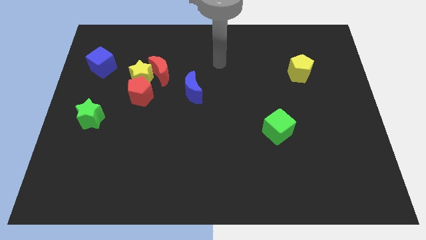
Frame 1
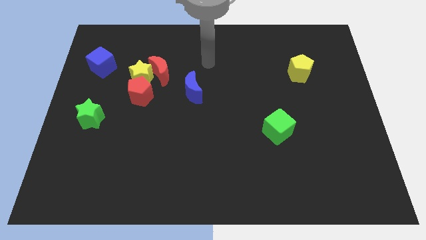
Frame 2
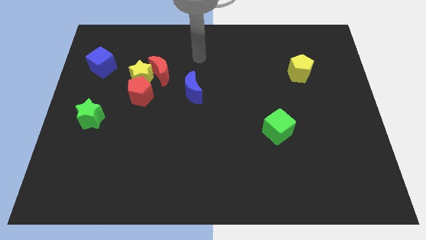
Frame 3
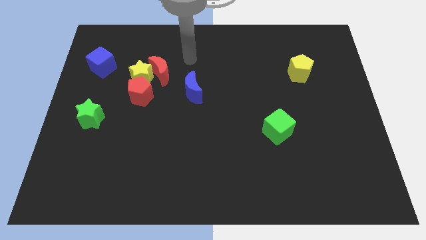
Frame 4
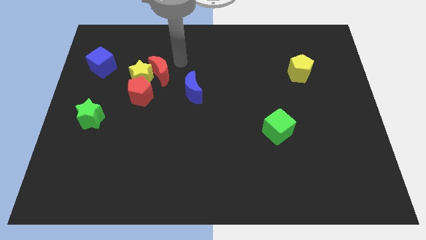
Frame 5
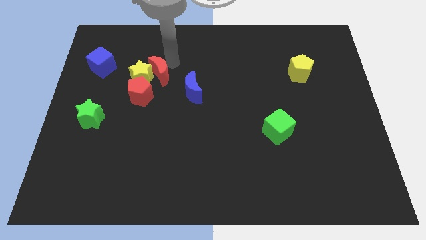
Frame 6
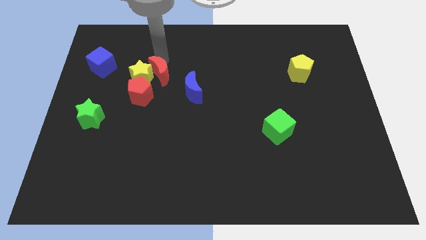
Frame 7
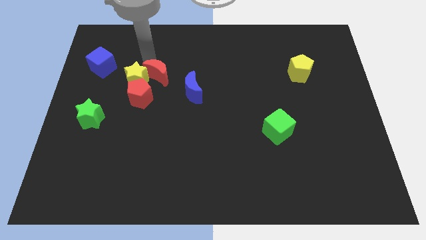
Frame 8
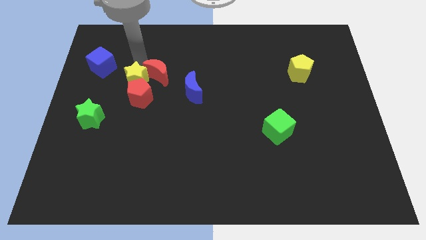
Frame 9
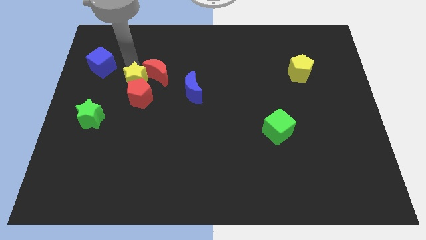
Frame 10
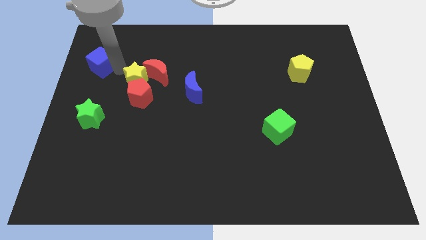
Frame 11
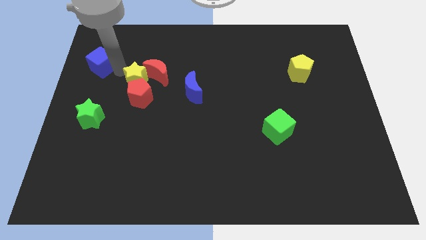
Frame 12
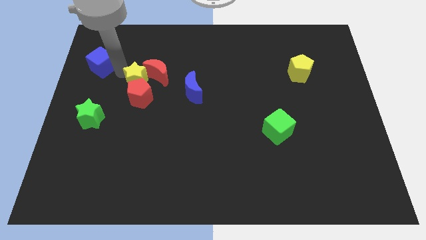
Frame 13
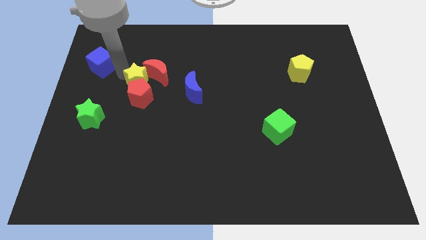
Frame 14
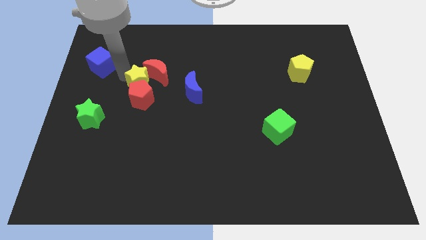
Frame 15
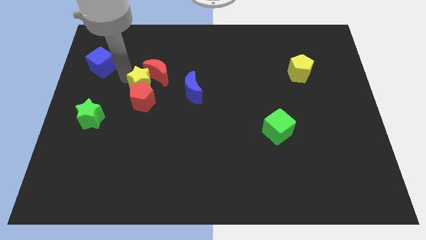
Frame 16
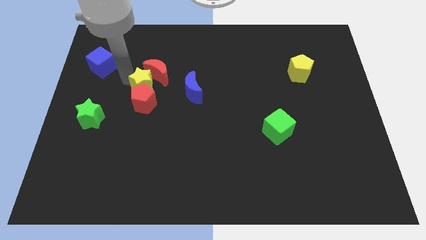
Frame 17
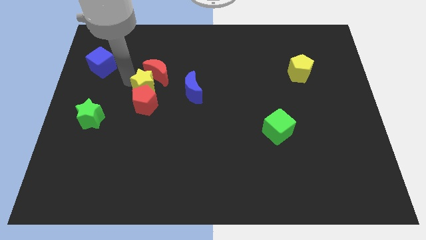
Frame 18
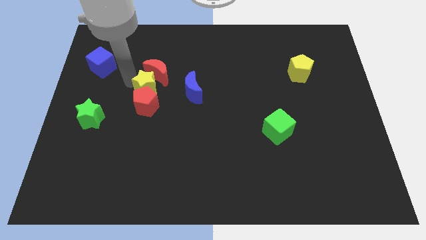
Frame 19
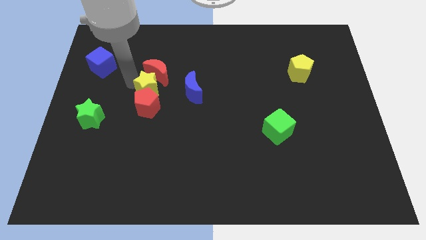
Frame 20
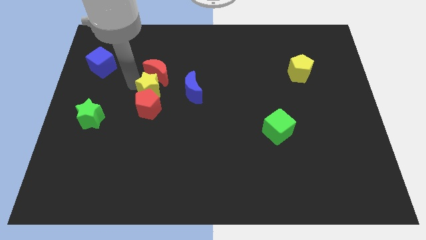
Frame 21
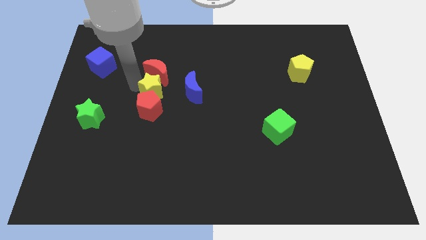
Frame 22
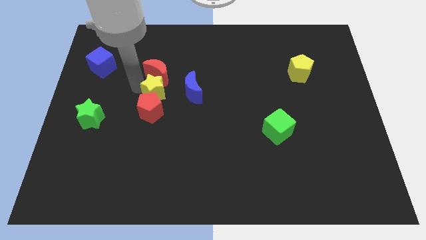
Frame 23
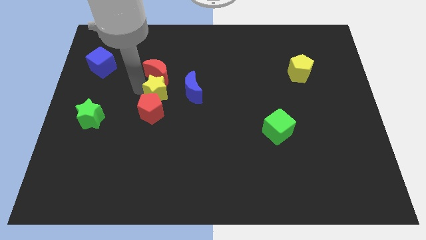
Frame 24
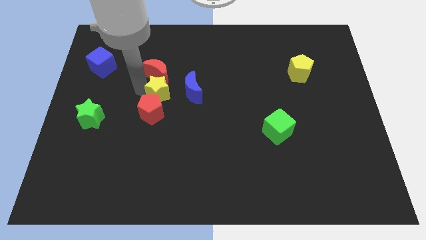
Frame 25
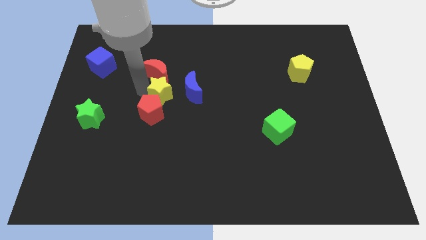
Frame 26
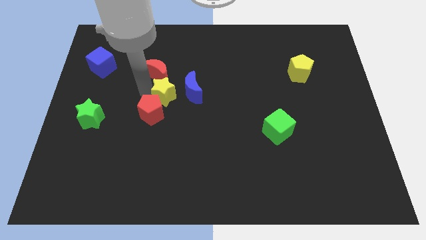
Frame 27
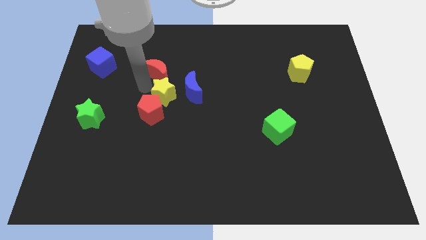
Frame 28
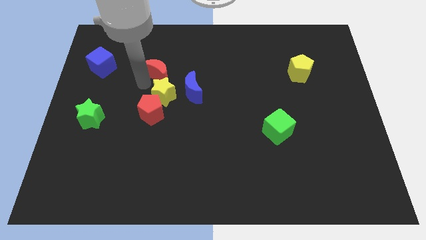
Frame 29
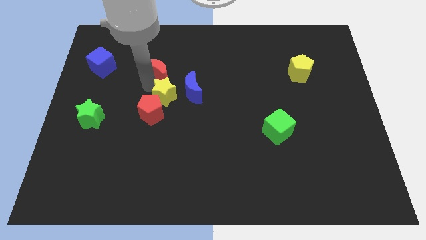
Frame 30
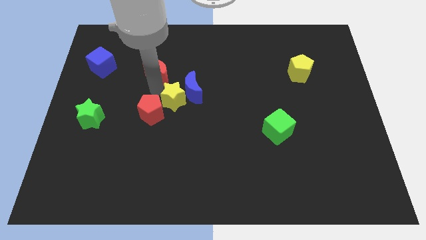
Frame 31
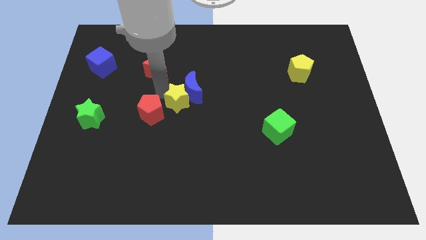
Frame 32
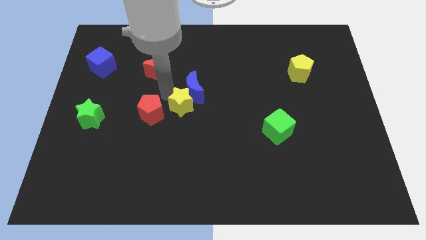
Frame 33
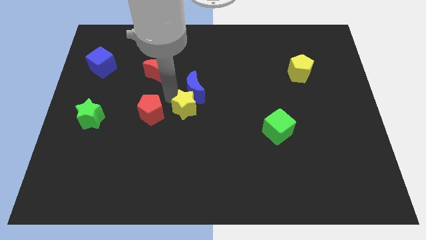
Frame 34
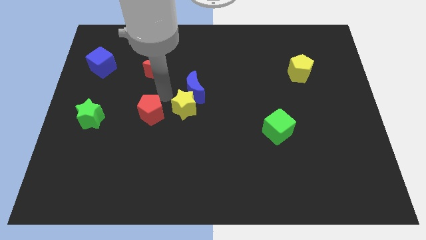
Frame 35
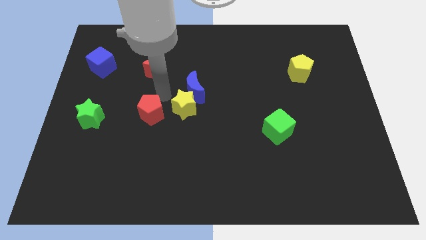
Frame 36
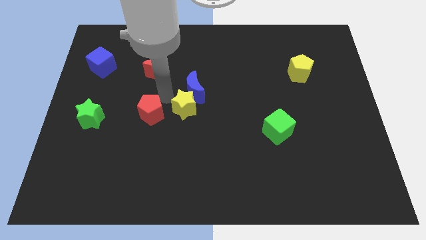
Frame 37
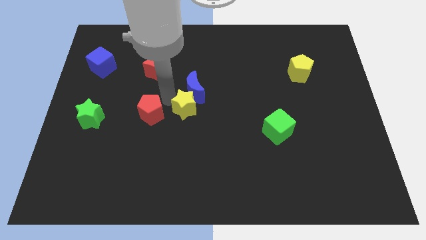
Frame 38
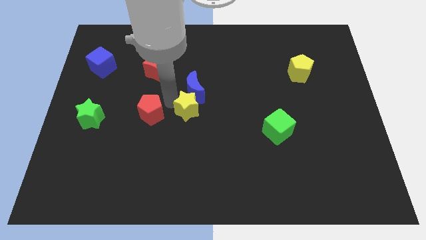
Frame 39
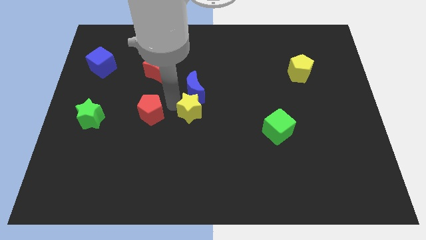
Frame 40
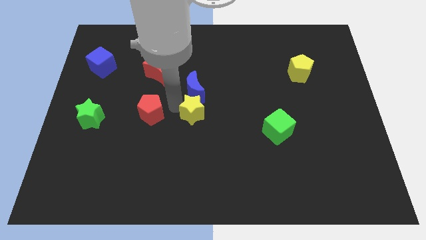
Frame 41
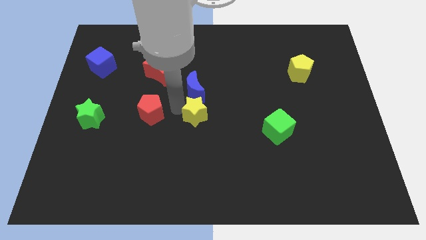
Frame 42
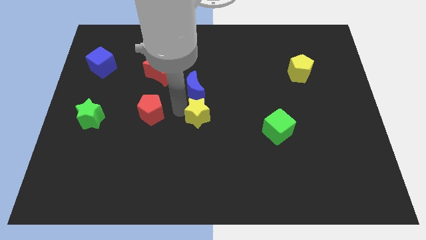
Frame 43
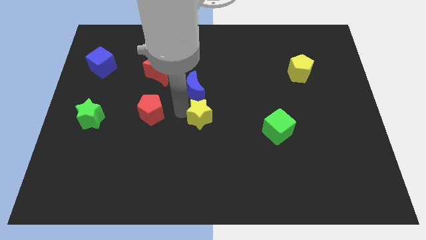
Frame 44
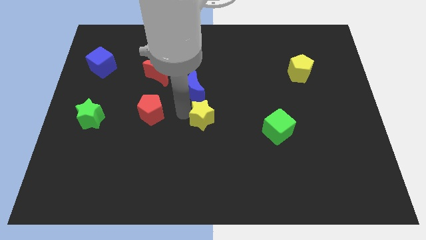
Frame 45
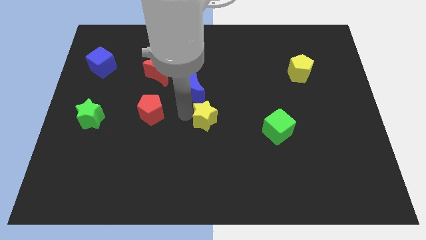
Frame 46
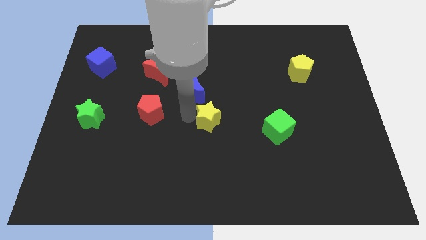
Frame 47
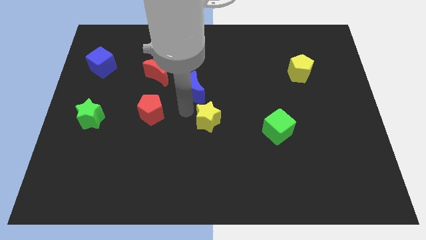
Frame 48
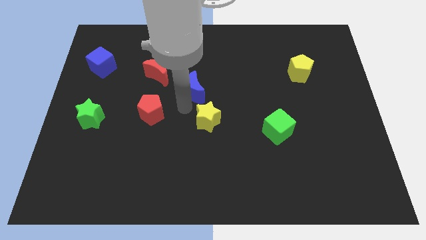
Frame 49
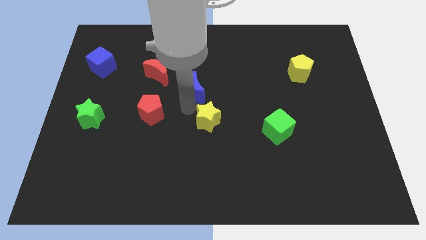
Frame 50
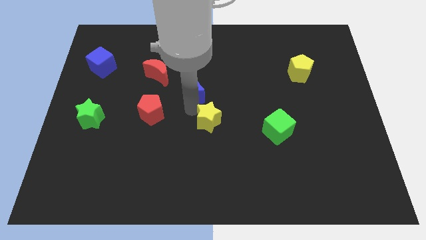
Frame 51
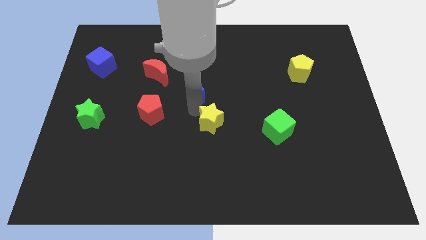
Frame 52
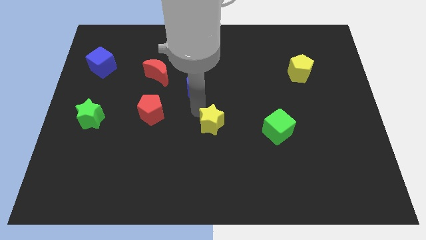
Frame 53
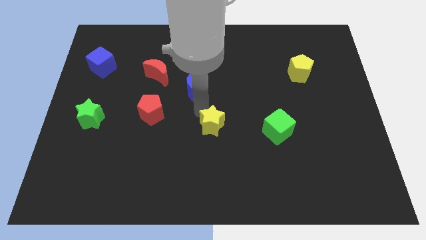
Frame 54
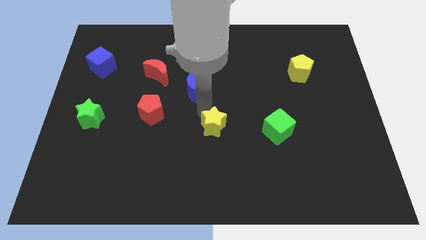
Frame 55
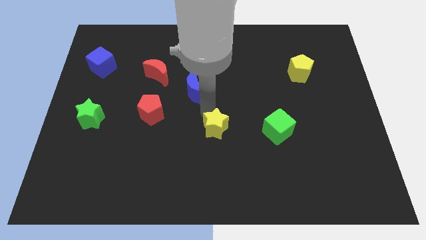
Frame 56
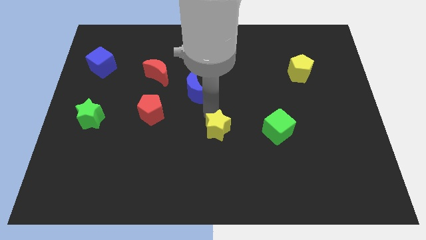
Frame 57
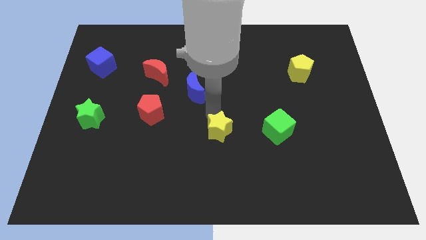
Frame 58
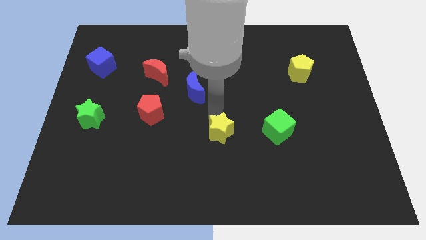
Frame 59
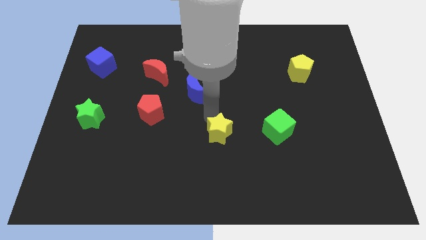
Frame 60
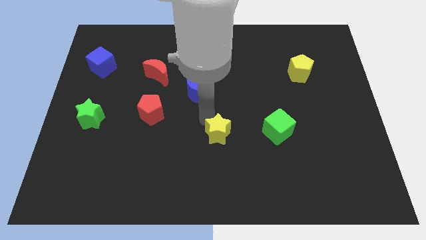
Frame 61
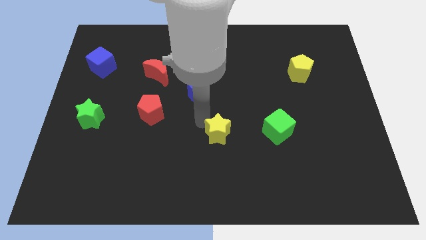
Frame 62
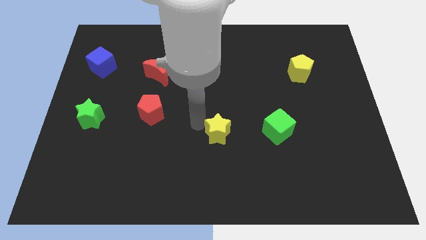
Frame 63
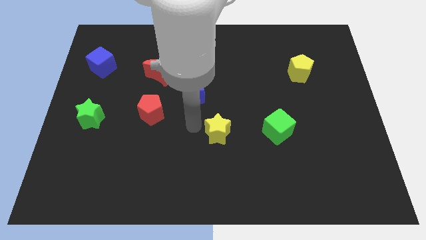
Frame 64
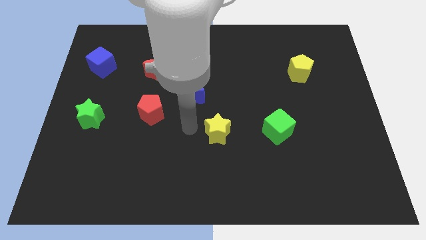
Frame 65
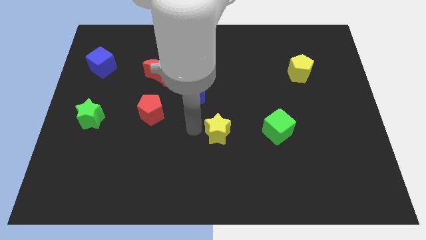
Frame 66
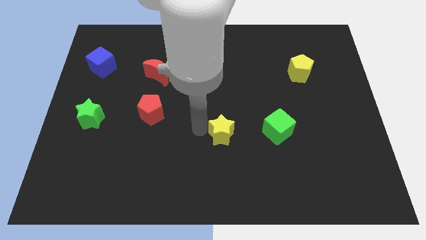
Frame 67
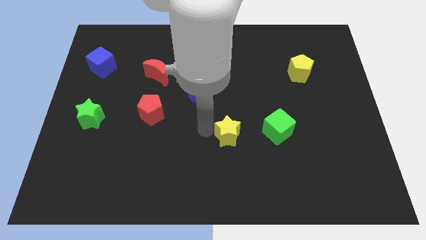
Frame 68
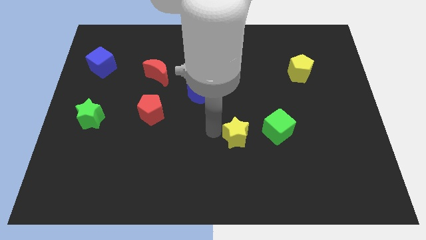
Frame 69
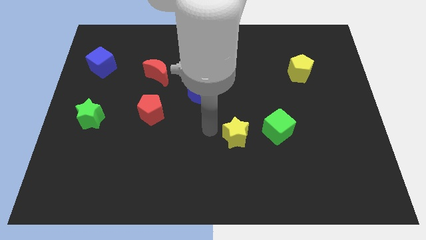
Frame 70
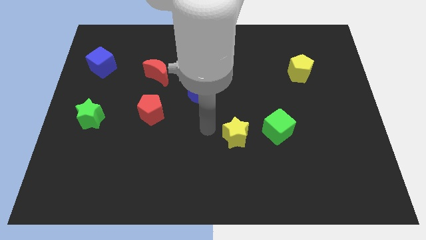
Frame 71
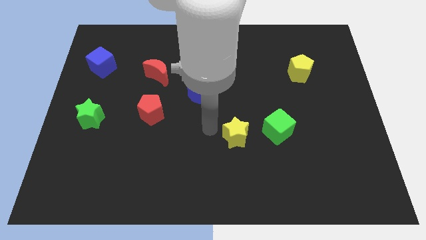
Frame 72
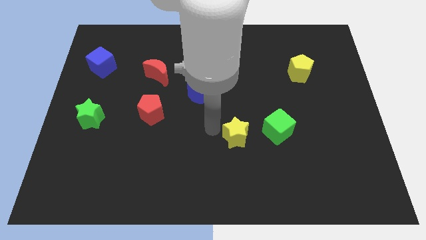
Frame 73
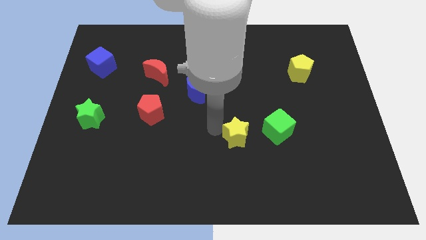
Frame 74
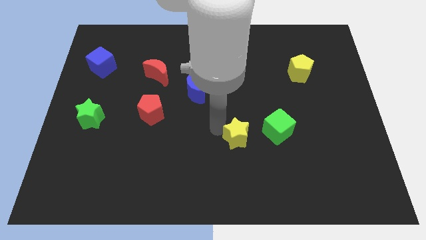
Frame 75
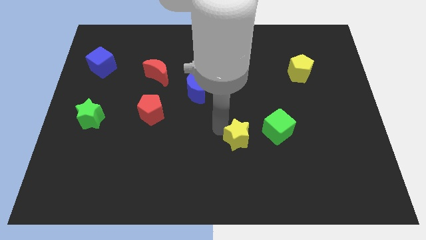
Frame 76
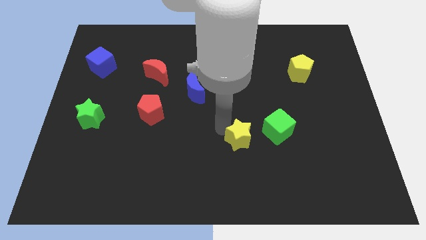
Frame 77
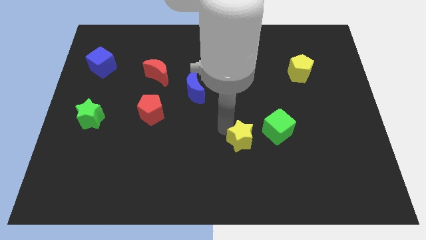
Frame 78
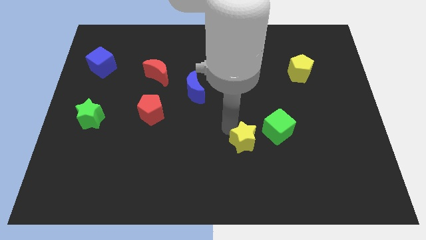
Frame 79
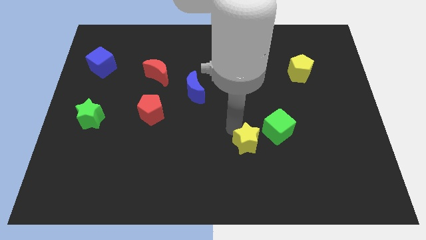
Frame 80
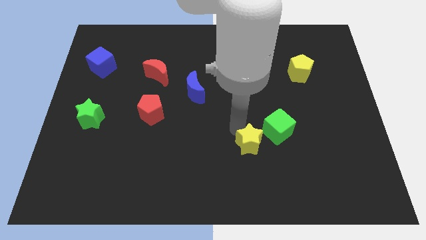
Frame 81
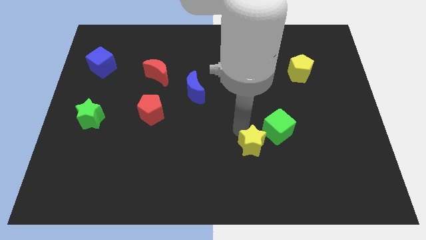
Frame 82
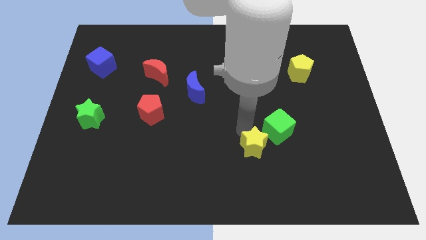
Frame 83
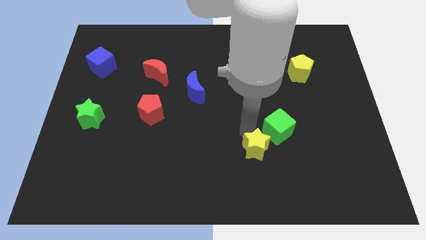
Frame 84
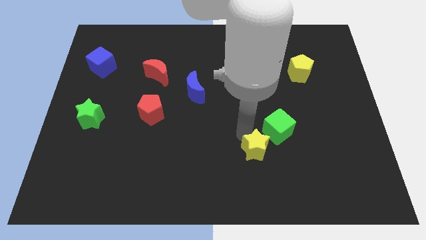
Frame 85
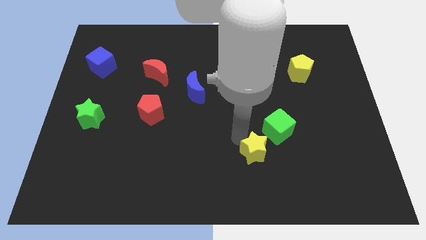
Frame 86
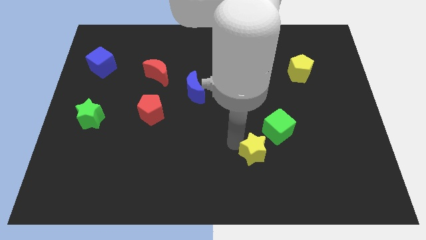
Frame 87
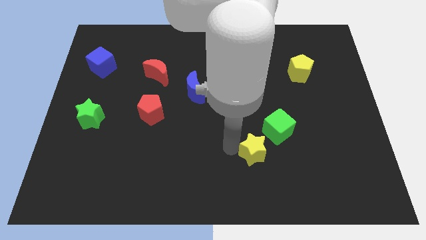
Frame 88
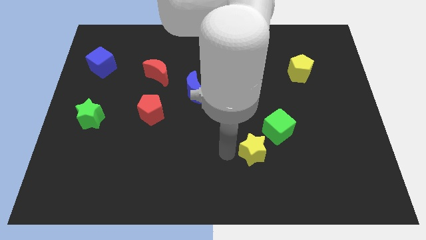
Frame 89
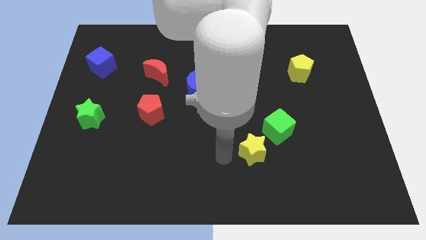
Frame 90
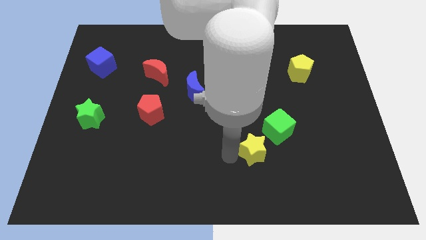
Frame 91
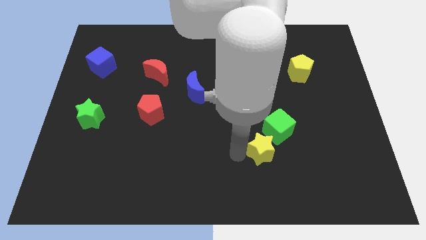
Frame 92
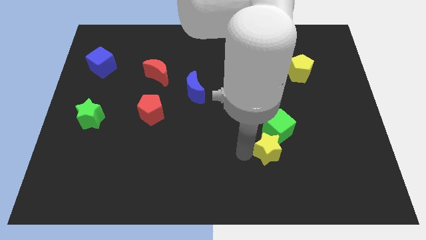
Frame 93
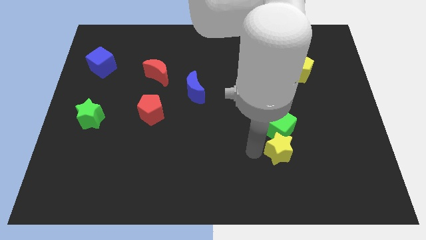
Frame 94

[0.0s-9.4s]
slide the yellow star to the bottom right of the green cube
